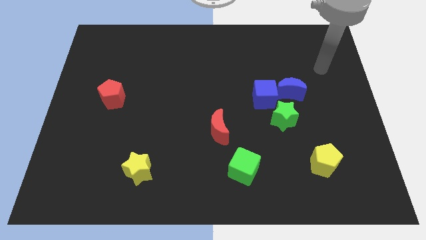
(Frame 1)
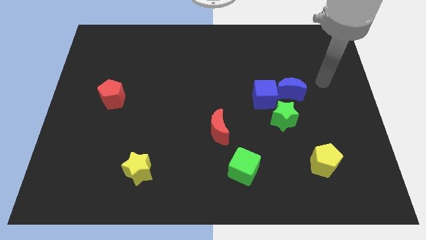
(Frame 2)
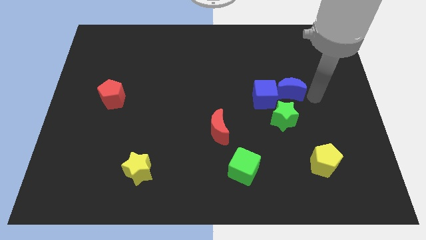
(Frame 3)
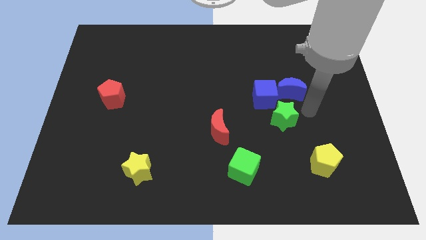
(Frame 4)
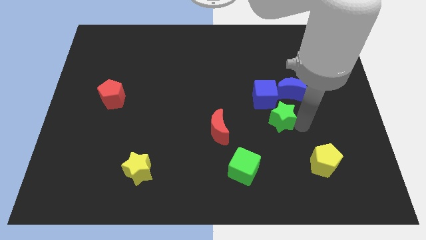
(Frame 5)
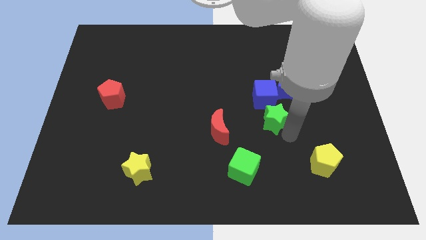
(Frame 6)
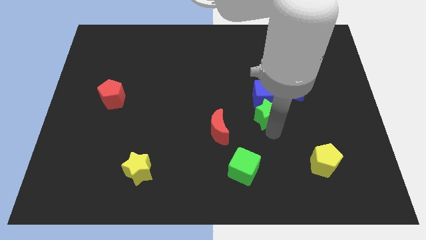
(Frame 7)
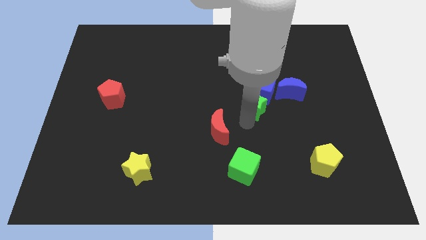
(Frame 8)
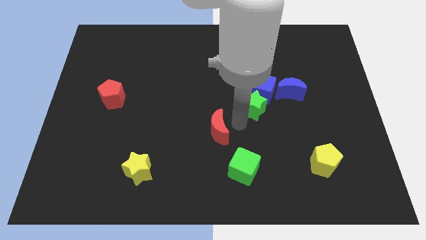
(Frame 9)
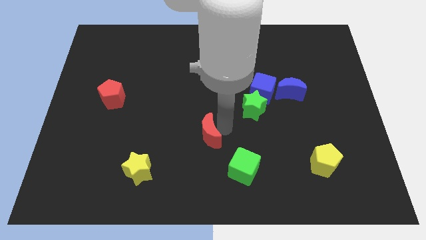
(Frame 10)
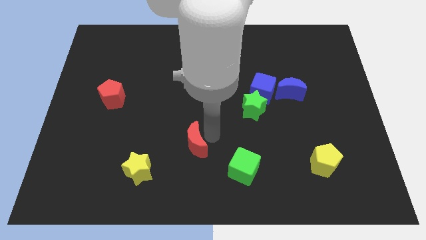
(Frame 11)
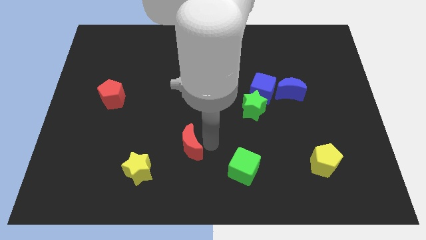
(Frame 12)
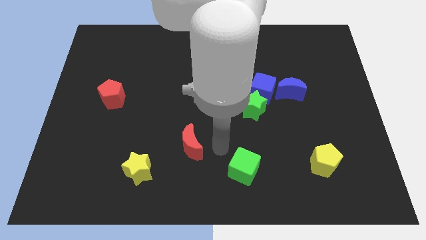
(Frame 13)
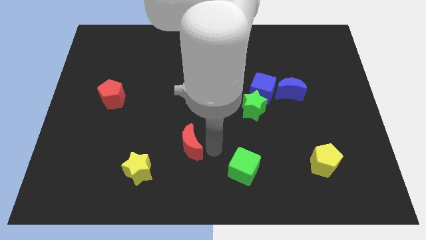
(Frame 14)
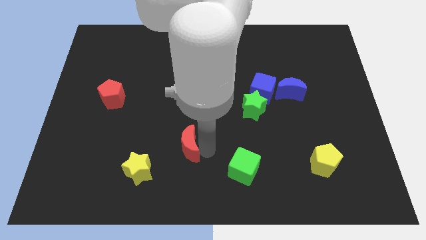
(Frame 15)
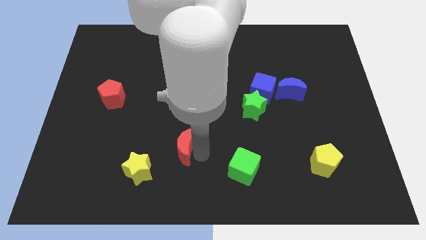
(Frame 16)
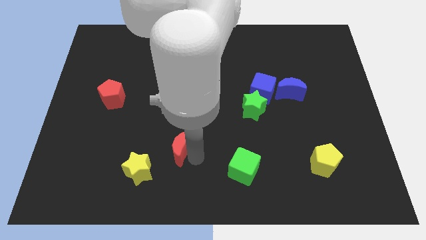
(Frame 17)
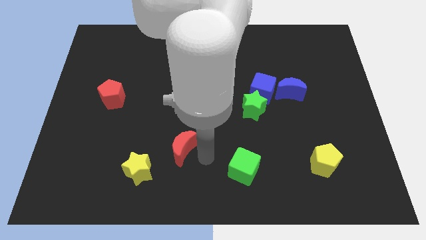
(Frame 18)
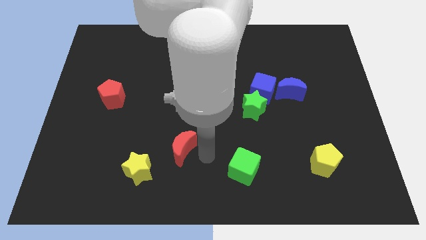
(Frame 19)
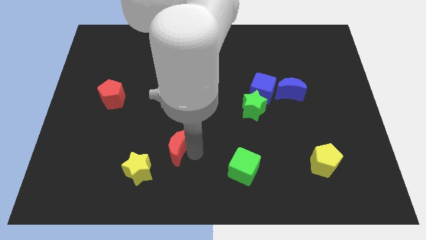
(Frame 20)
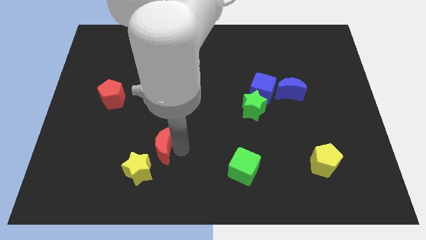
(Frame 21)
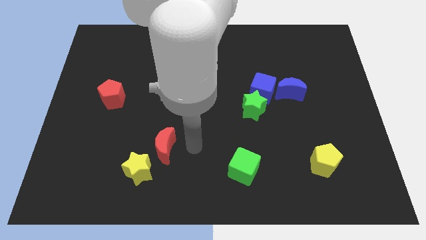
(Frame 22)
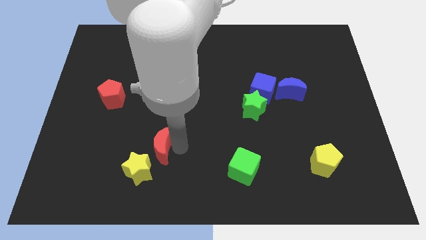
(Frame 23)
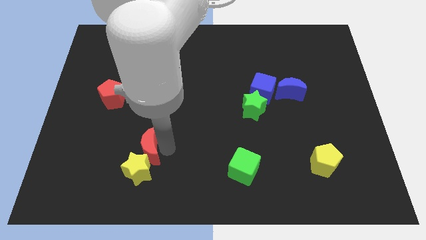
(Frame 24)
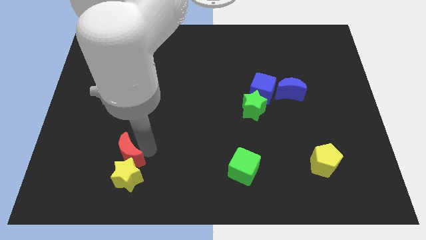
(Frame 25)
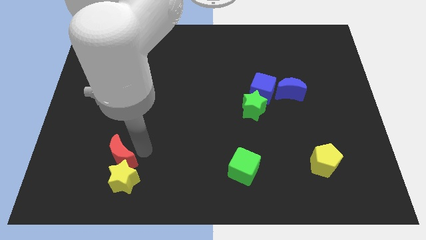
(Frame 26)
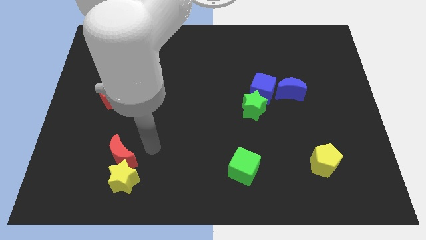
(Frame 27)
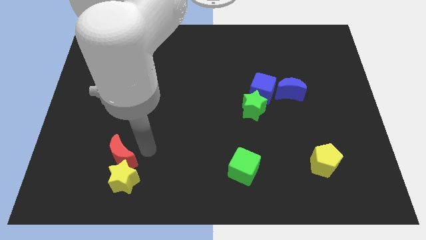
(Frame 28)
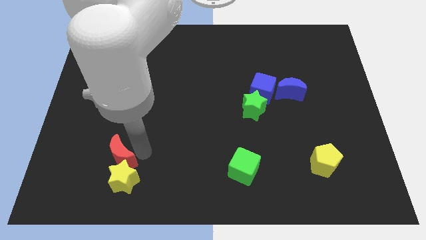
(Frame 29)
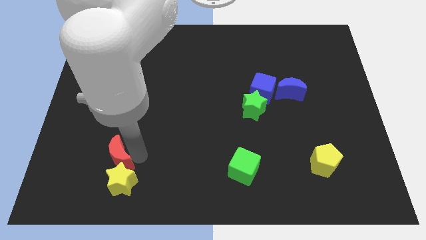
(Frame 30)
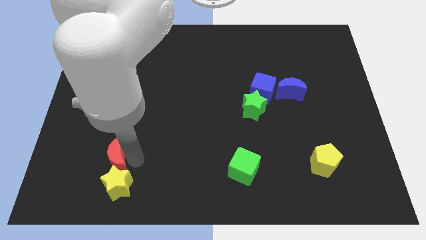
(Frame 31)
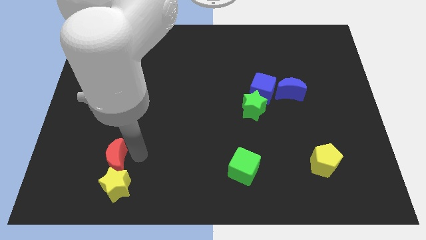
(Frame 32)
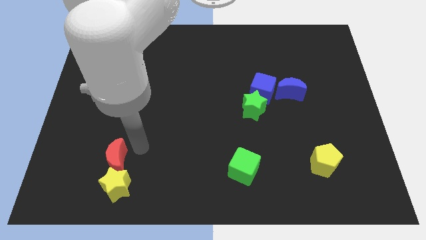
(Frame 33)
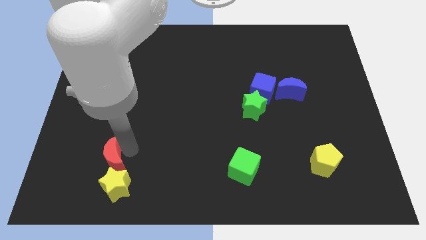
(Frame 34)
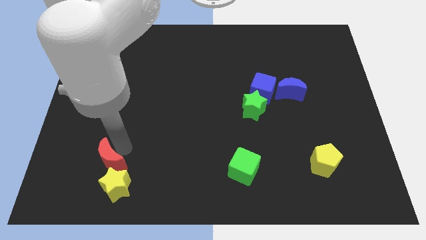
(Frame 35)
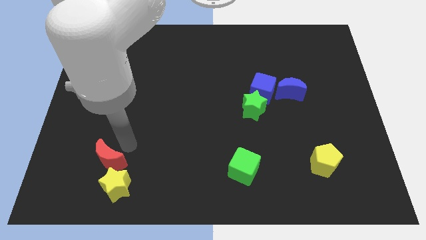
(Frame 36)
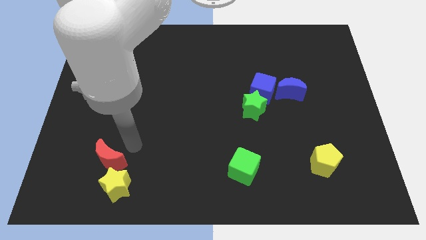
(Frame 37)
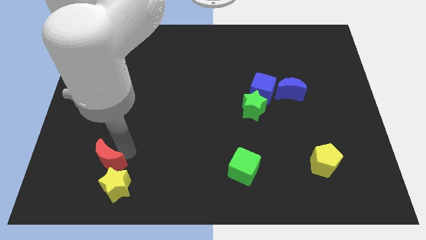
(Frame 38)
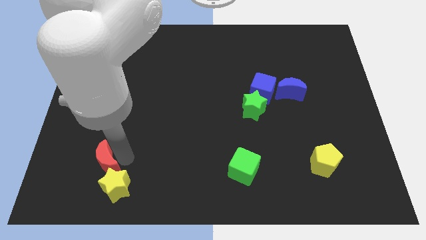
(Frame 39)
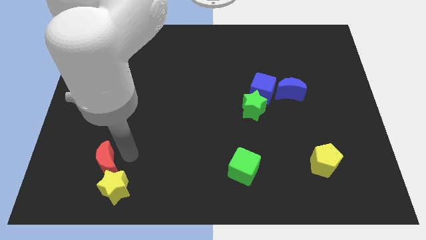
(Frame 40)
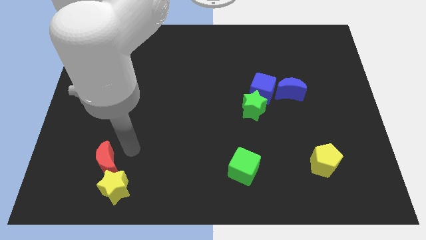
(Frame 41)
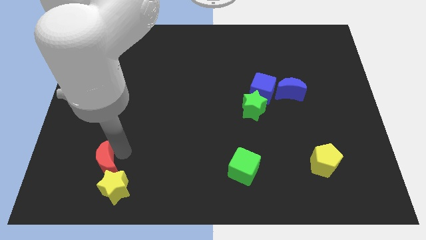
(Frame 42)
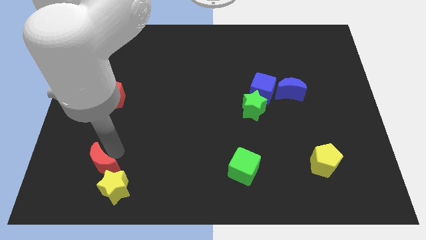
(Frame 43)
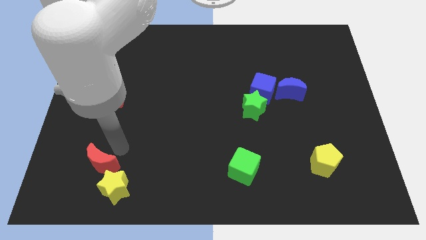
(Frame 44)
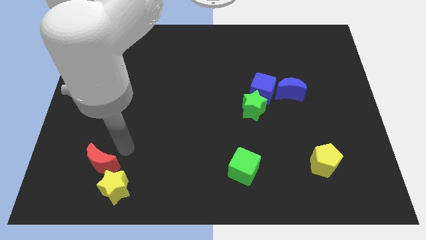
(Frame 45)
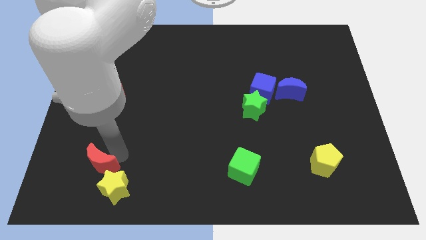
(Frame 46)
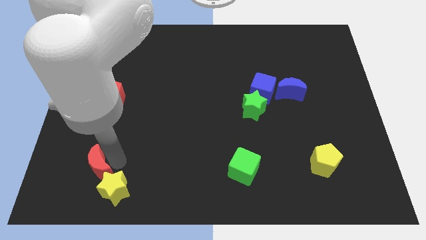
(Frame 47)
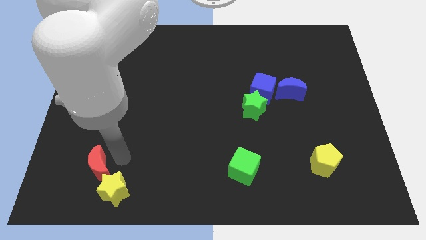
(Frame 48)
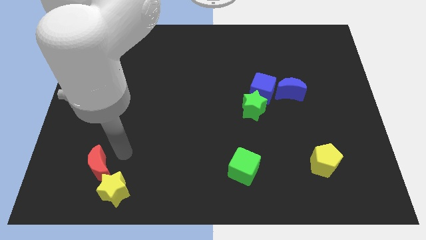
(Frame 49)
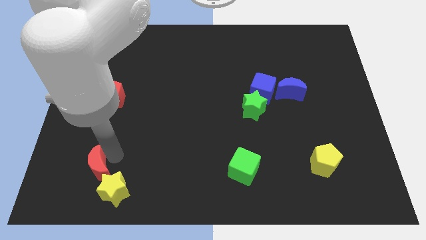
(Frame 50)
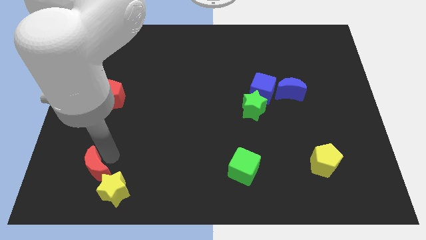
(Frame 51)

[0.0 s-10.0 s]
put the red moon to the left side of the yellow star

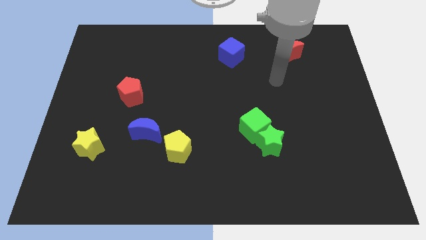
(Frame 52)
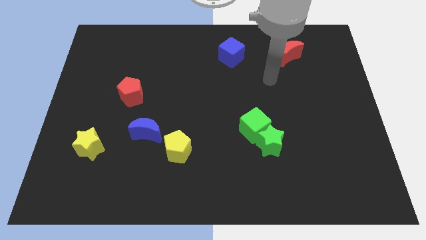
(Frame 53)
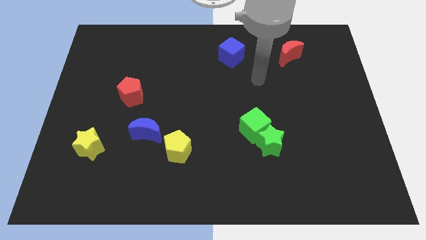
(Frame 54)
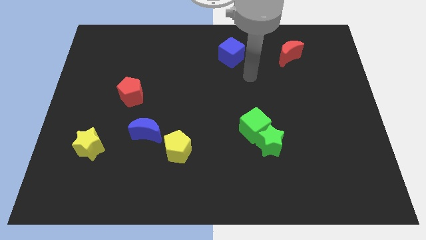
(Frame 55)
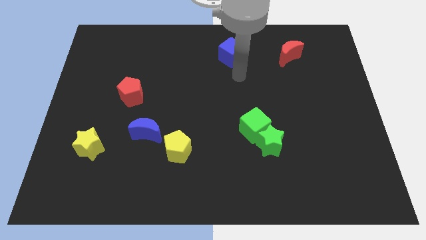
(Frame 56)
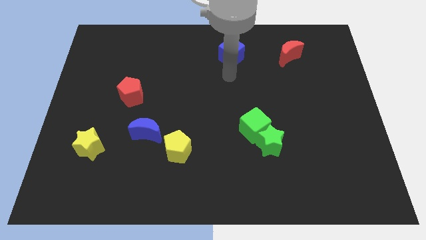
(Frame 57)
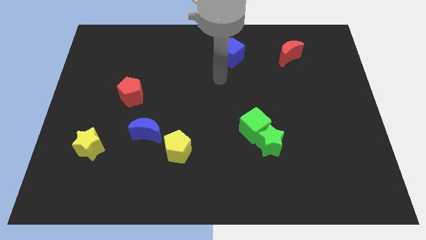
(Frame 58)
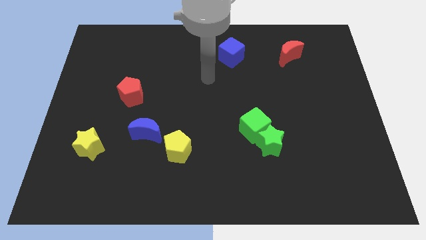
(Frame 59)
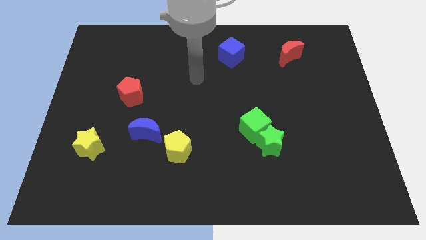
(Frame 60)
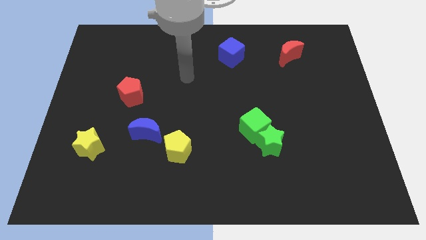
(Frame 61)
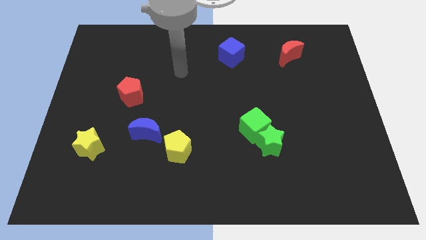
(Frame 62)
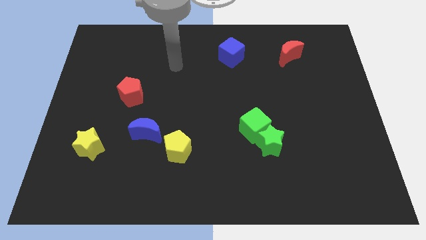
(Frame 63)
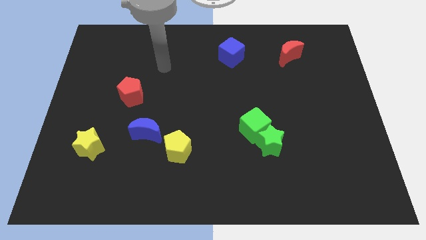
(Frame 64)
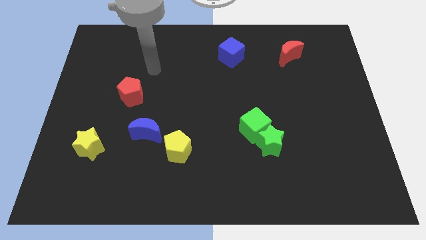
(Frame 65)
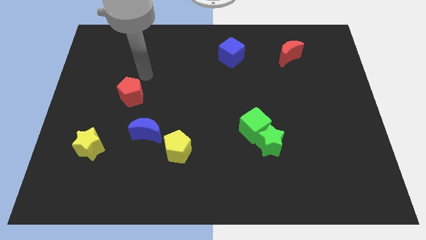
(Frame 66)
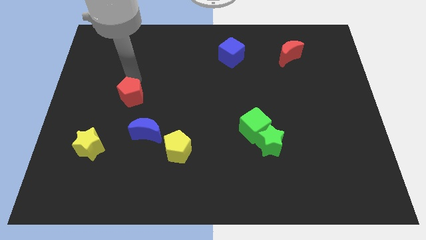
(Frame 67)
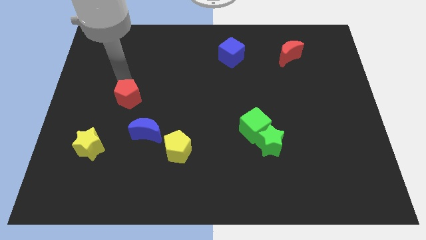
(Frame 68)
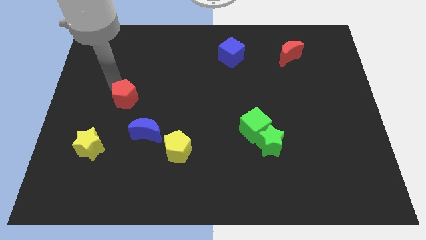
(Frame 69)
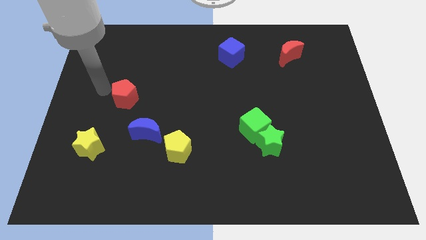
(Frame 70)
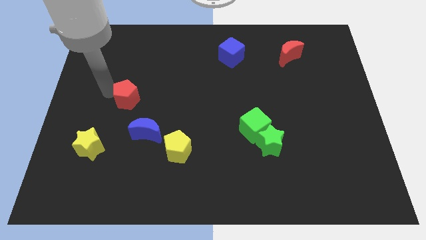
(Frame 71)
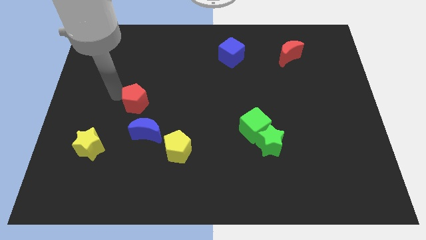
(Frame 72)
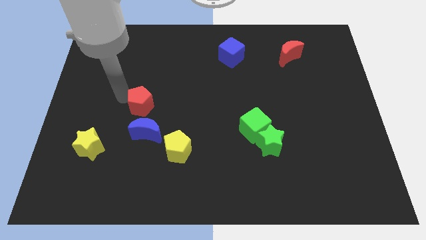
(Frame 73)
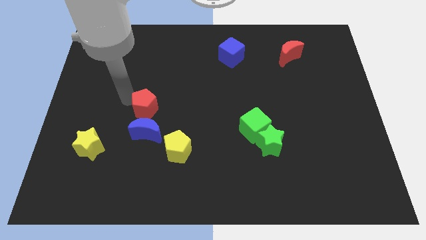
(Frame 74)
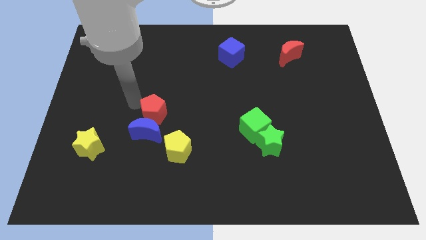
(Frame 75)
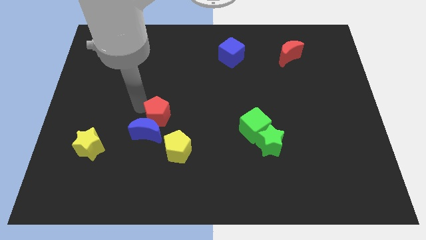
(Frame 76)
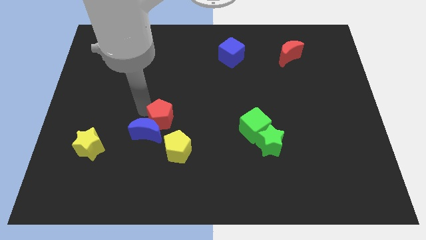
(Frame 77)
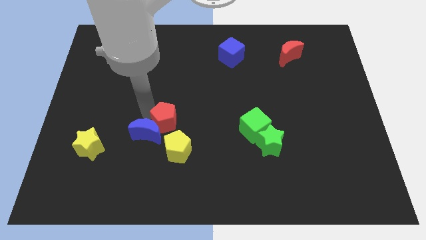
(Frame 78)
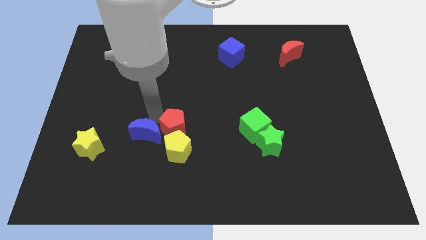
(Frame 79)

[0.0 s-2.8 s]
put the red pentagon to the top right side of the yellow pentagon
